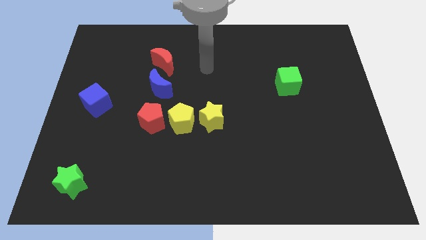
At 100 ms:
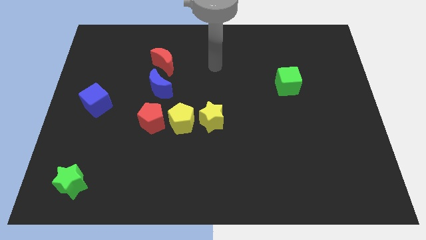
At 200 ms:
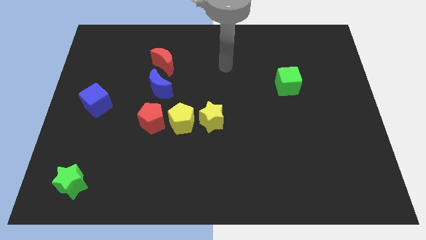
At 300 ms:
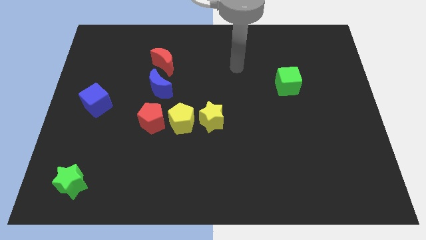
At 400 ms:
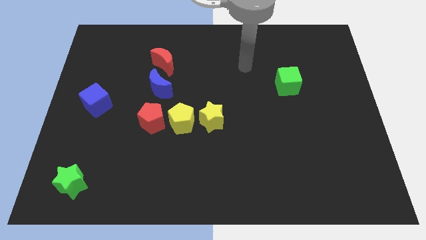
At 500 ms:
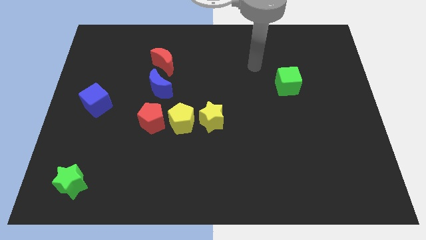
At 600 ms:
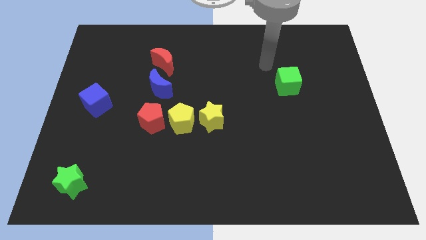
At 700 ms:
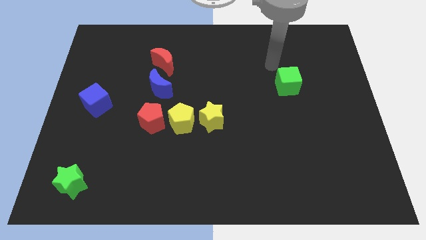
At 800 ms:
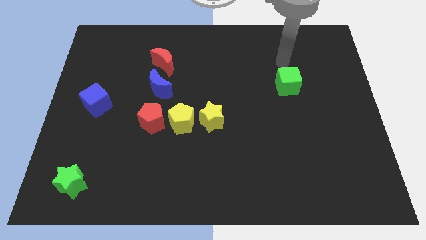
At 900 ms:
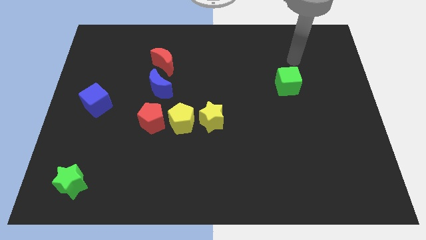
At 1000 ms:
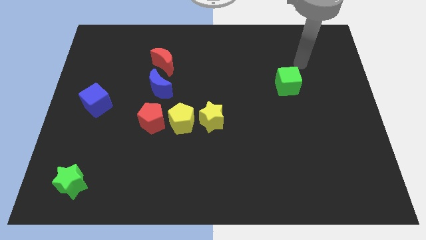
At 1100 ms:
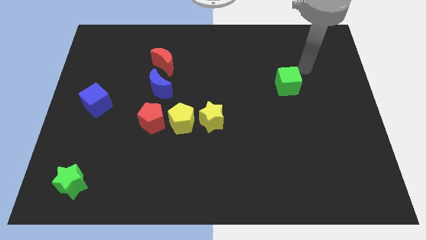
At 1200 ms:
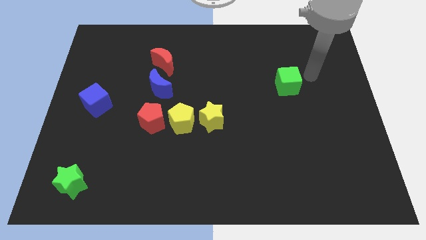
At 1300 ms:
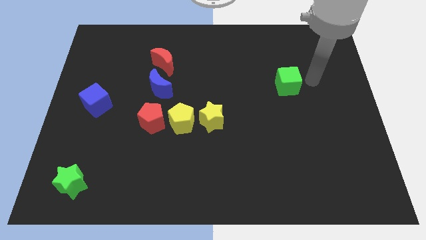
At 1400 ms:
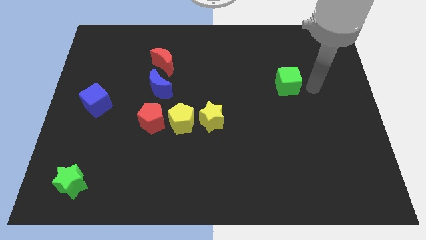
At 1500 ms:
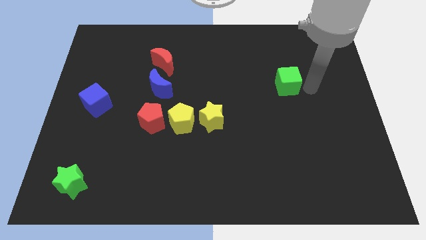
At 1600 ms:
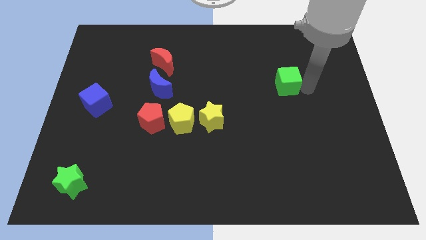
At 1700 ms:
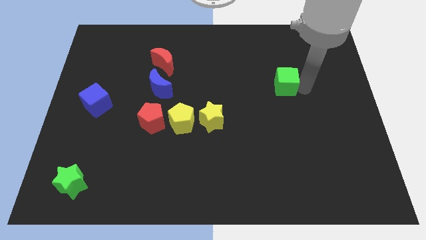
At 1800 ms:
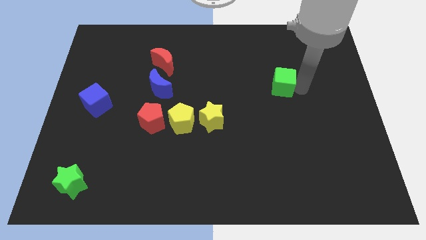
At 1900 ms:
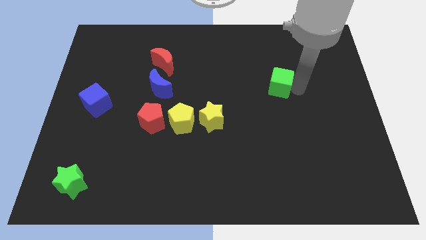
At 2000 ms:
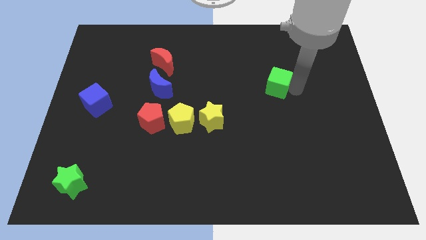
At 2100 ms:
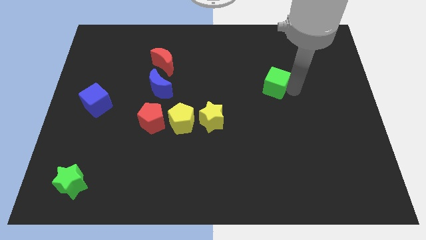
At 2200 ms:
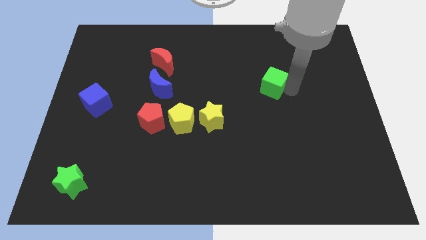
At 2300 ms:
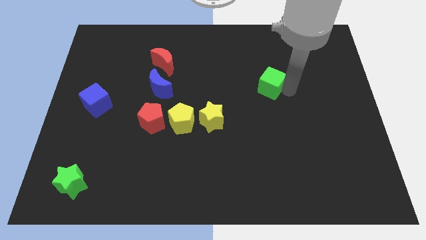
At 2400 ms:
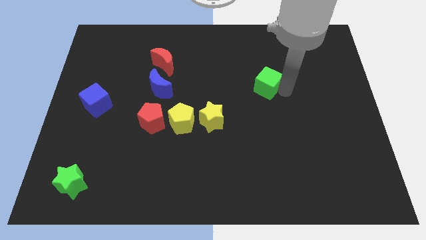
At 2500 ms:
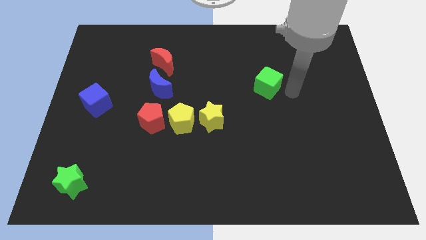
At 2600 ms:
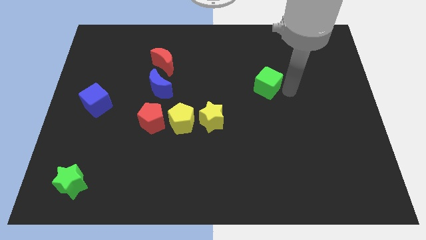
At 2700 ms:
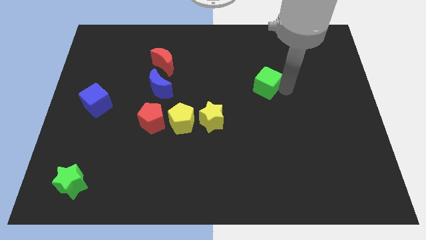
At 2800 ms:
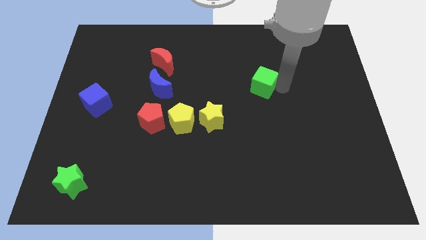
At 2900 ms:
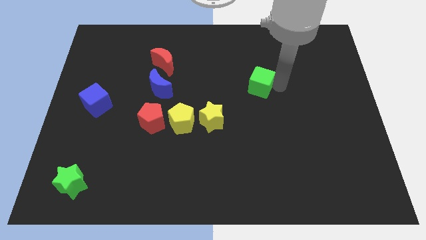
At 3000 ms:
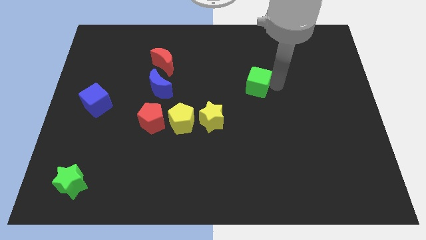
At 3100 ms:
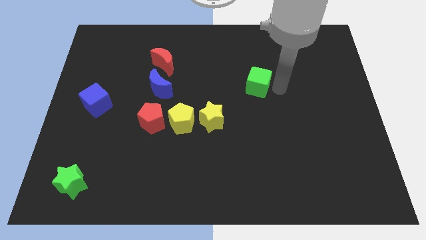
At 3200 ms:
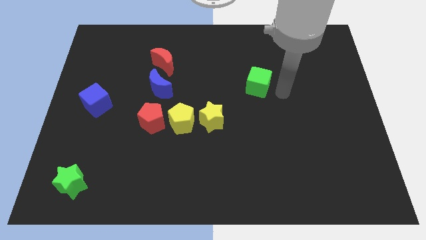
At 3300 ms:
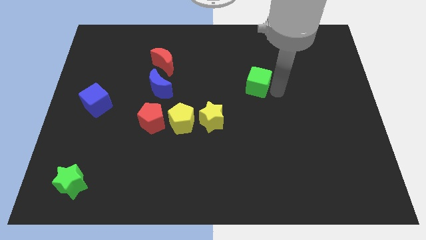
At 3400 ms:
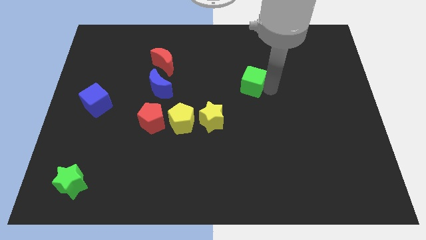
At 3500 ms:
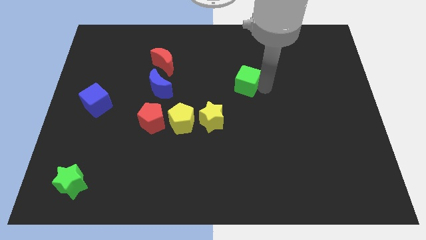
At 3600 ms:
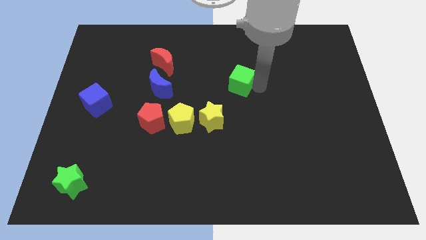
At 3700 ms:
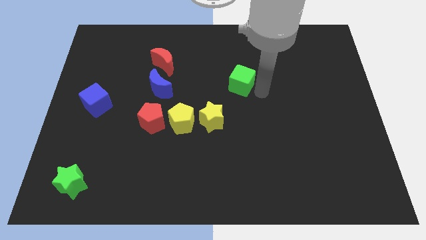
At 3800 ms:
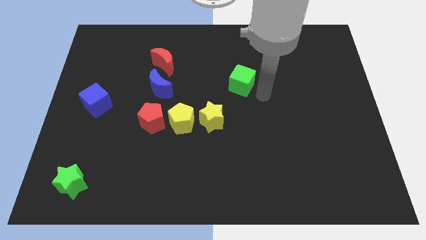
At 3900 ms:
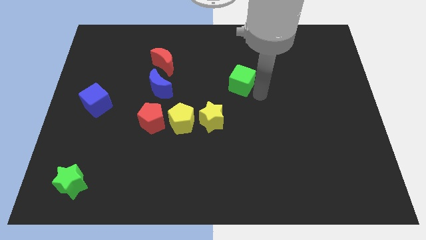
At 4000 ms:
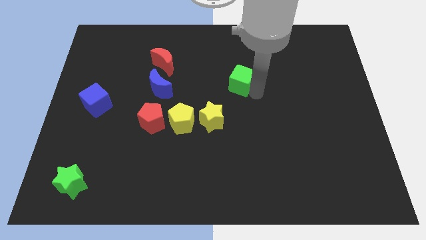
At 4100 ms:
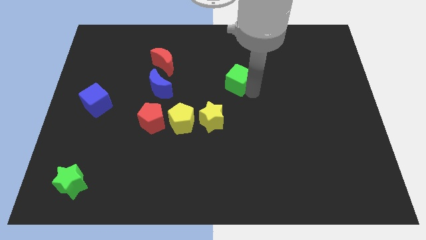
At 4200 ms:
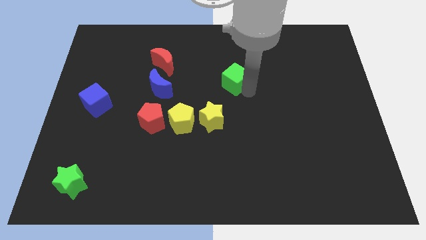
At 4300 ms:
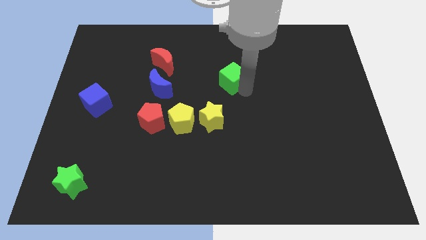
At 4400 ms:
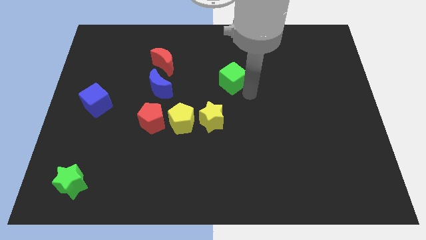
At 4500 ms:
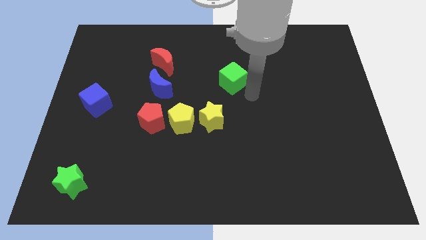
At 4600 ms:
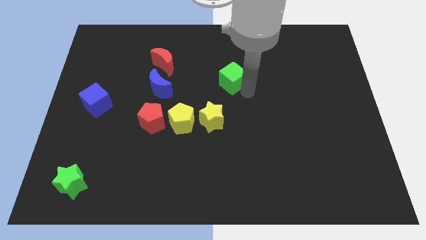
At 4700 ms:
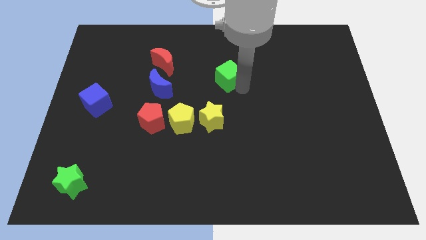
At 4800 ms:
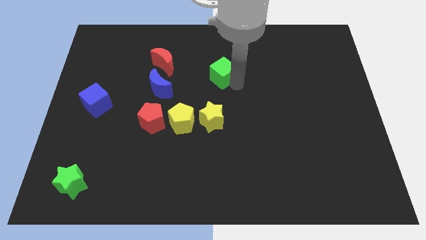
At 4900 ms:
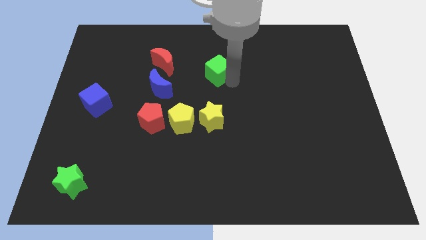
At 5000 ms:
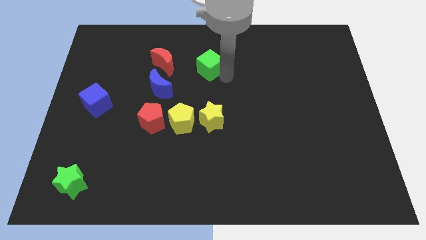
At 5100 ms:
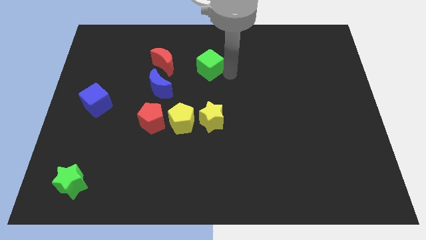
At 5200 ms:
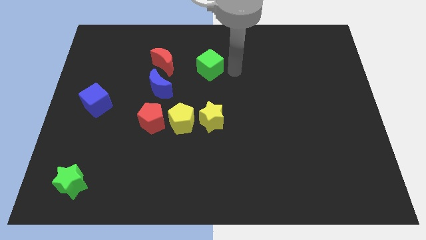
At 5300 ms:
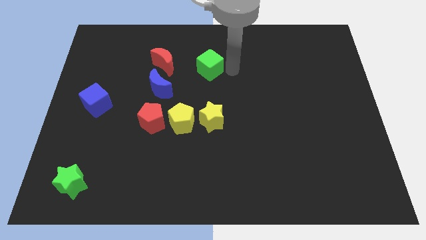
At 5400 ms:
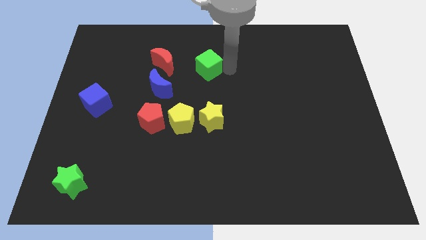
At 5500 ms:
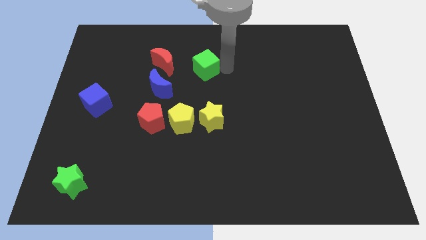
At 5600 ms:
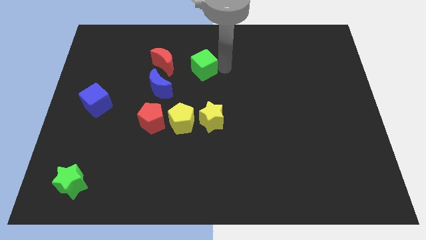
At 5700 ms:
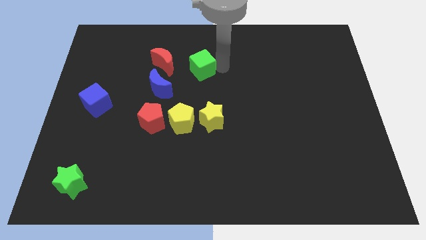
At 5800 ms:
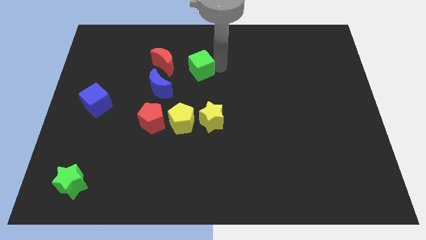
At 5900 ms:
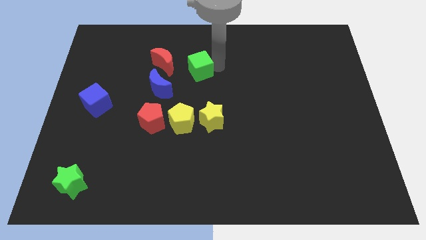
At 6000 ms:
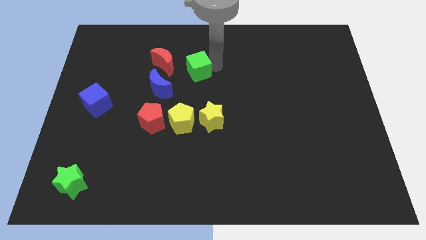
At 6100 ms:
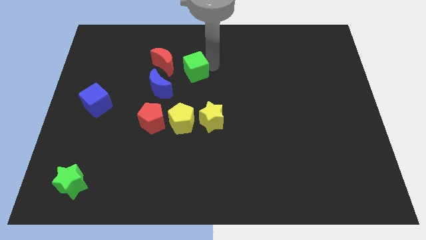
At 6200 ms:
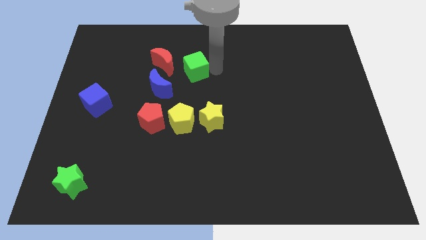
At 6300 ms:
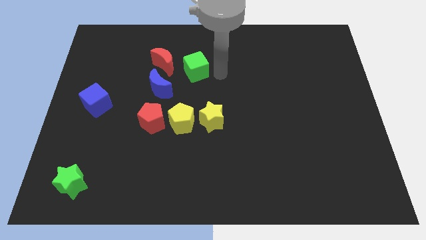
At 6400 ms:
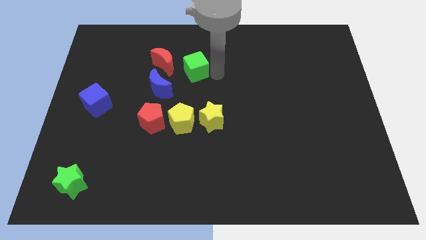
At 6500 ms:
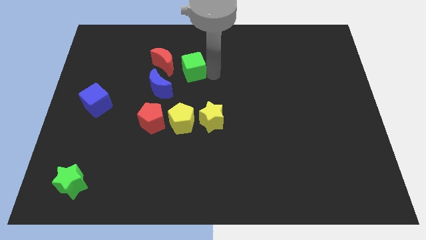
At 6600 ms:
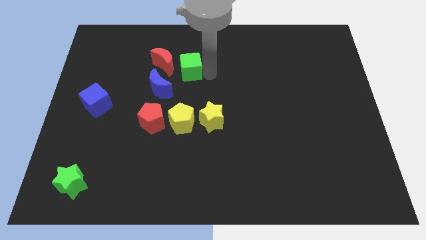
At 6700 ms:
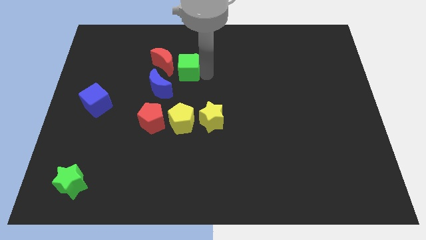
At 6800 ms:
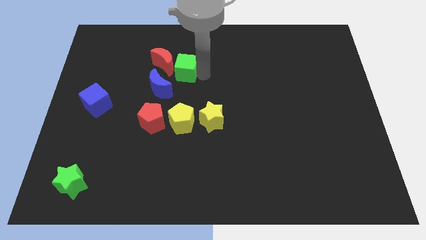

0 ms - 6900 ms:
put the green cube close to the red moon

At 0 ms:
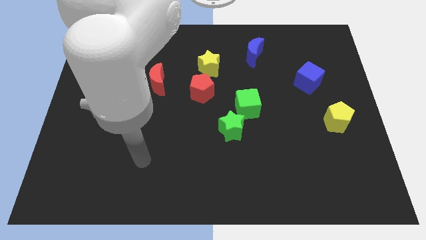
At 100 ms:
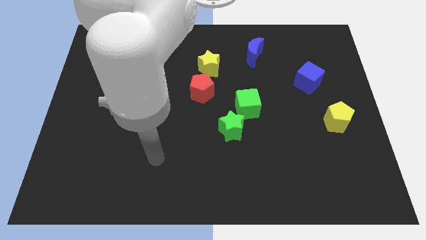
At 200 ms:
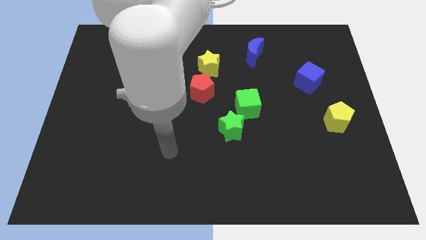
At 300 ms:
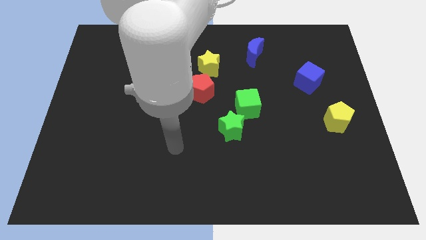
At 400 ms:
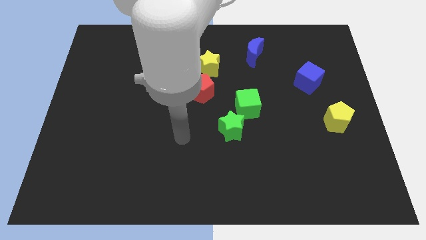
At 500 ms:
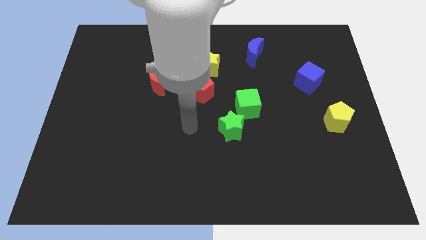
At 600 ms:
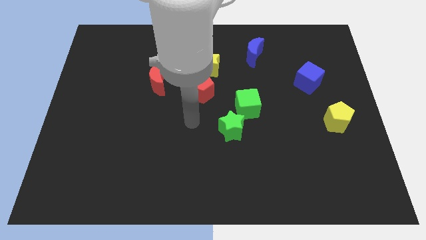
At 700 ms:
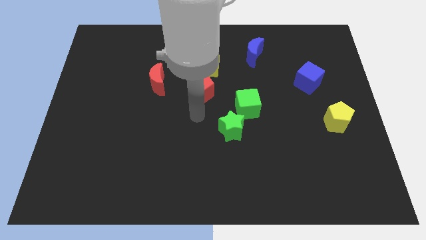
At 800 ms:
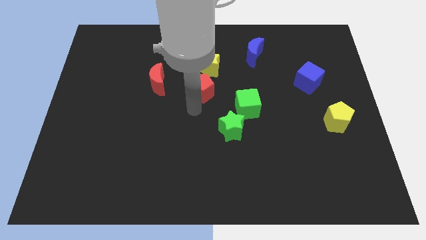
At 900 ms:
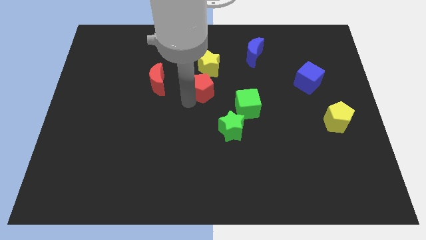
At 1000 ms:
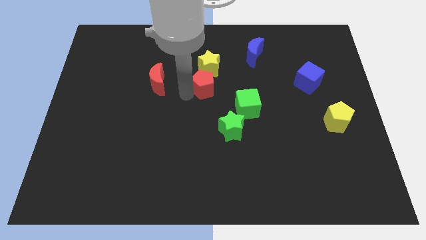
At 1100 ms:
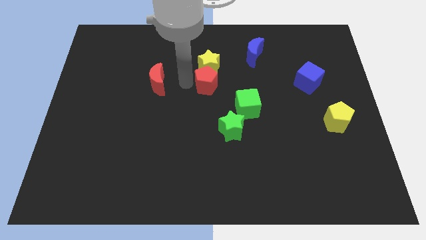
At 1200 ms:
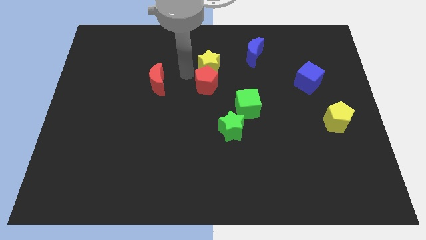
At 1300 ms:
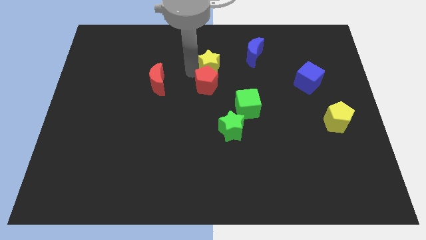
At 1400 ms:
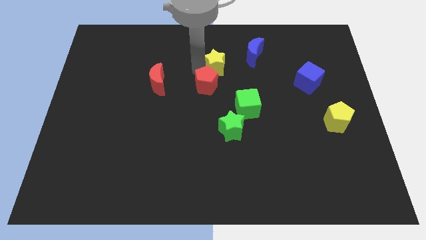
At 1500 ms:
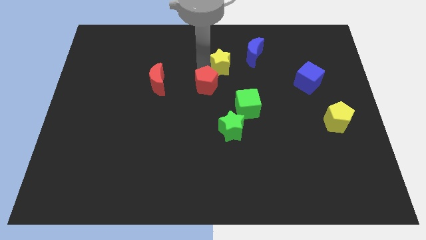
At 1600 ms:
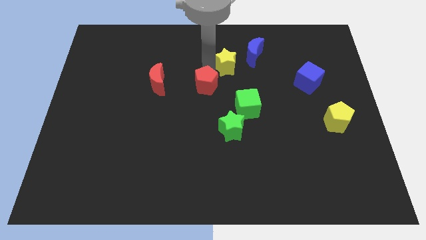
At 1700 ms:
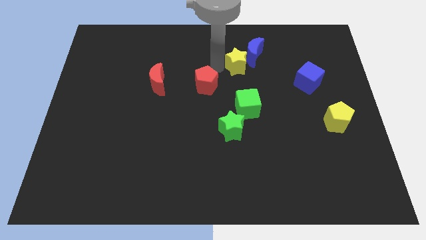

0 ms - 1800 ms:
push the yellow star close to the blue moon
